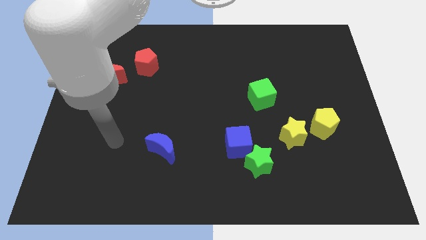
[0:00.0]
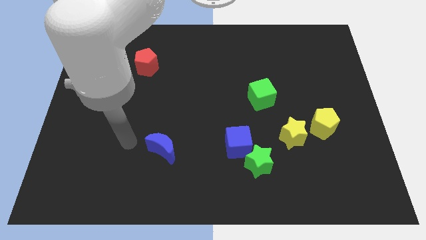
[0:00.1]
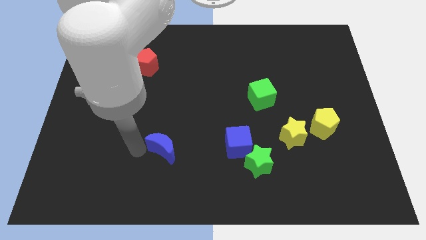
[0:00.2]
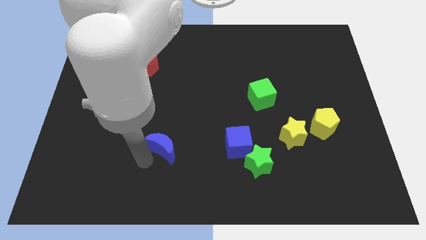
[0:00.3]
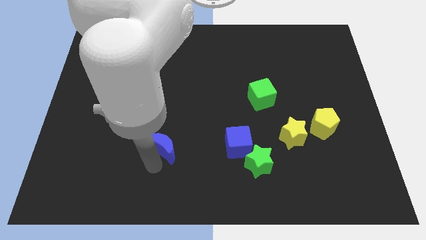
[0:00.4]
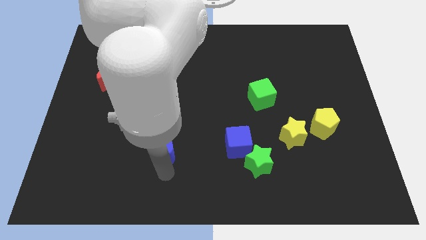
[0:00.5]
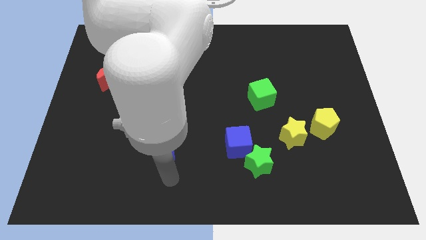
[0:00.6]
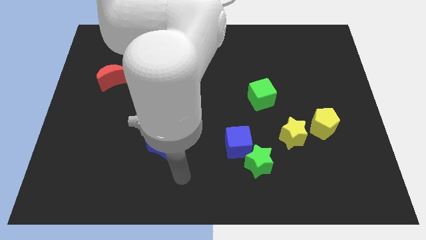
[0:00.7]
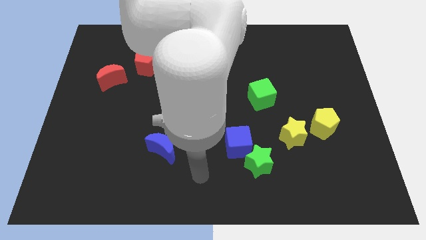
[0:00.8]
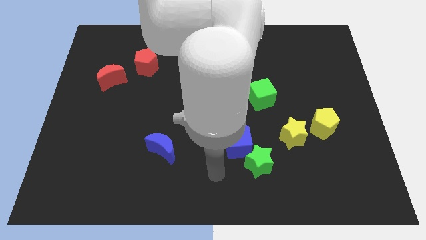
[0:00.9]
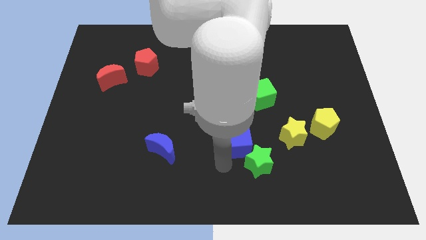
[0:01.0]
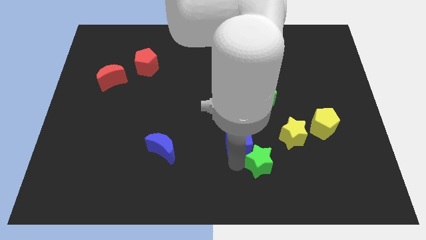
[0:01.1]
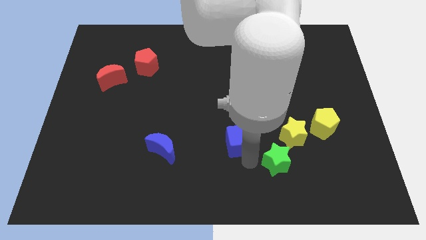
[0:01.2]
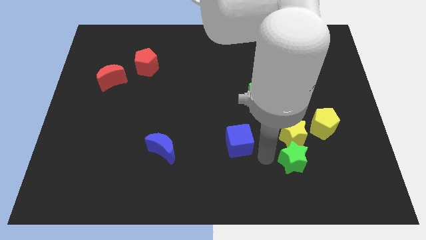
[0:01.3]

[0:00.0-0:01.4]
pull the blue cube apart from the green star

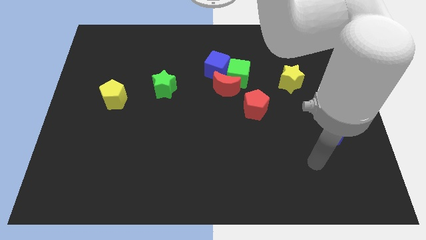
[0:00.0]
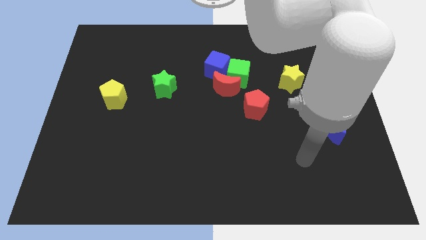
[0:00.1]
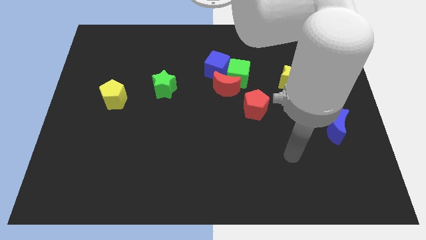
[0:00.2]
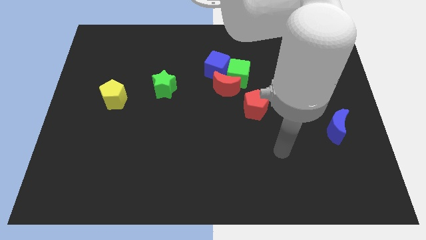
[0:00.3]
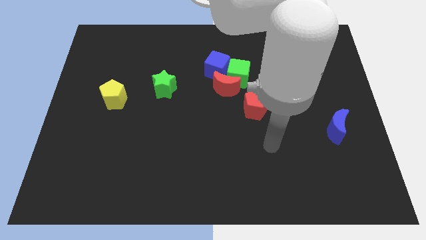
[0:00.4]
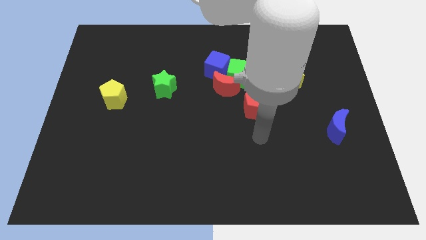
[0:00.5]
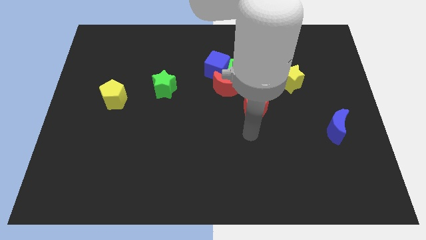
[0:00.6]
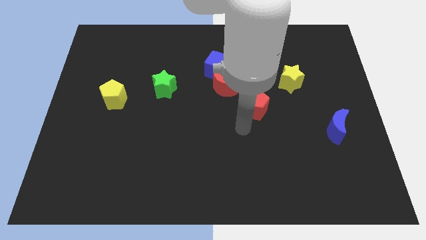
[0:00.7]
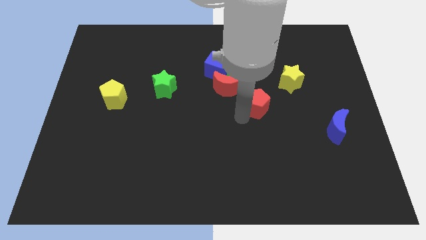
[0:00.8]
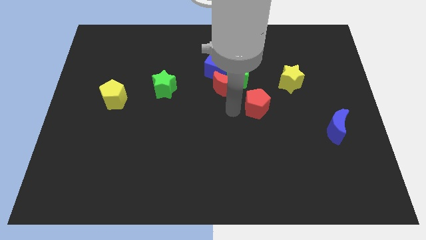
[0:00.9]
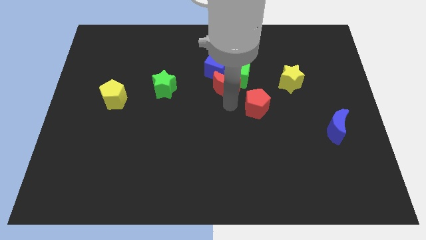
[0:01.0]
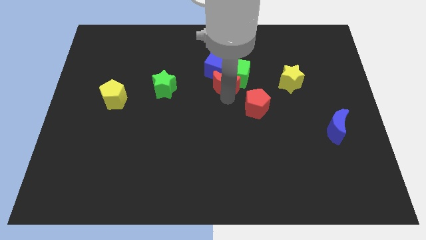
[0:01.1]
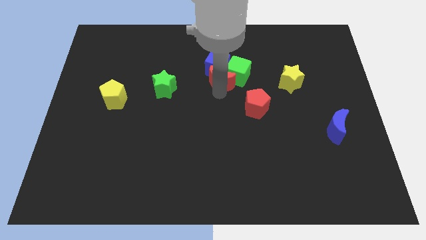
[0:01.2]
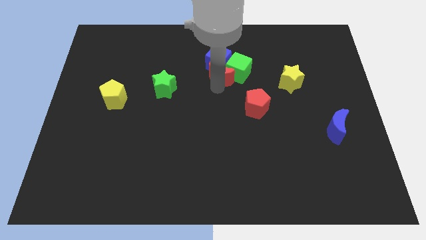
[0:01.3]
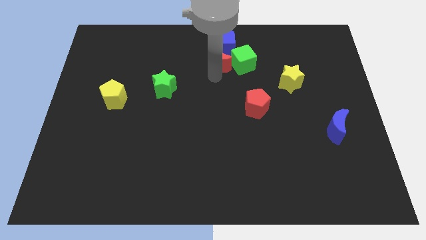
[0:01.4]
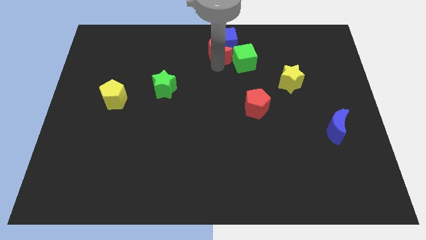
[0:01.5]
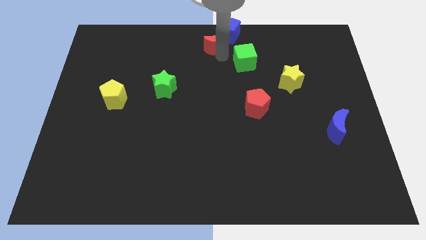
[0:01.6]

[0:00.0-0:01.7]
move the green cube away from the red moon and blue cube

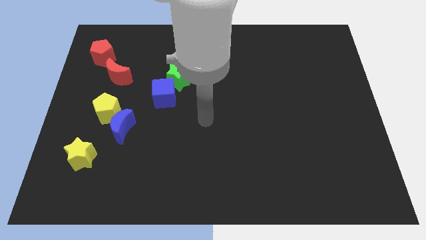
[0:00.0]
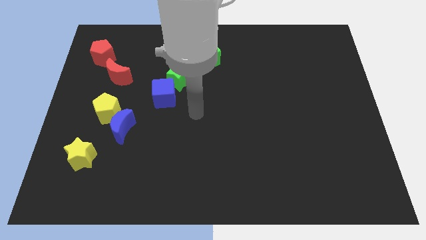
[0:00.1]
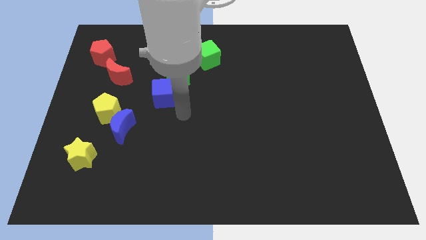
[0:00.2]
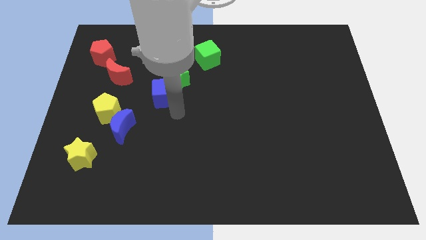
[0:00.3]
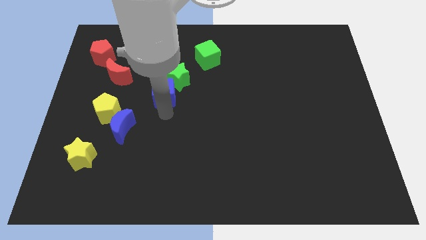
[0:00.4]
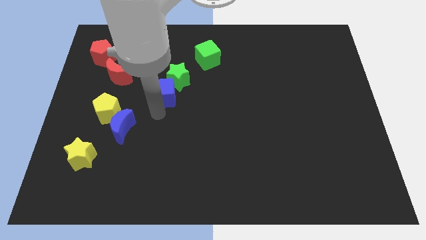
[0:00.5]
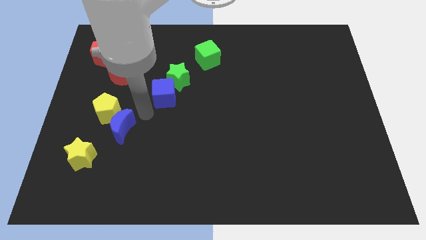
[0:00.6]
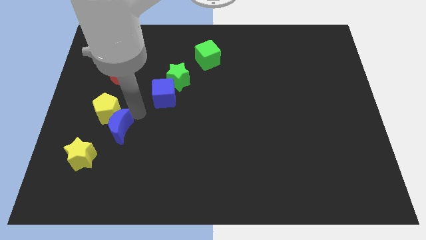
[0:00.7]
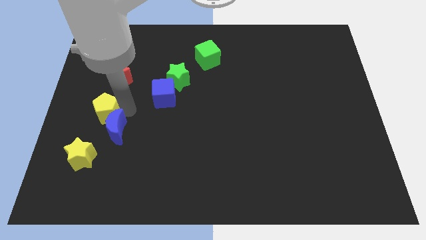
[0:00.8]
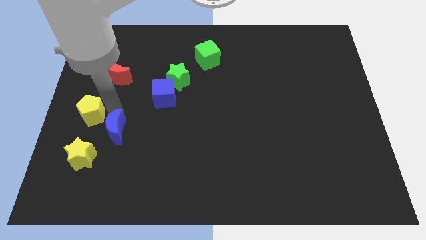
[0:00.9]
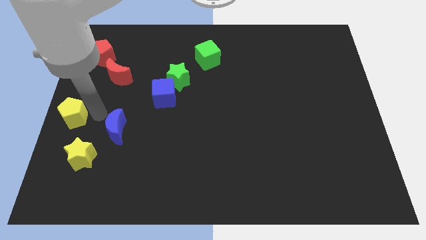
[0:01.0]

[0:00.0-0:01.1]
move the blue moon away from the yellow pentagon

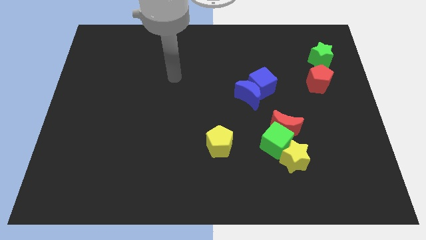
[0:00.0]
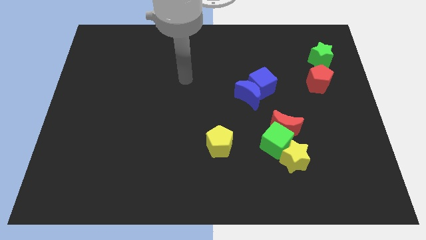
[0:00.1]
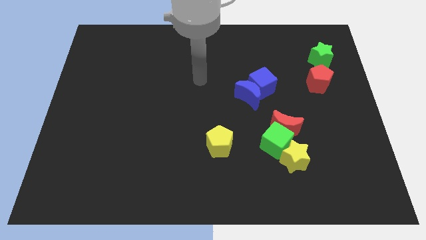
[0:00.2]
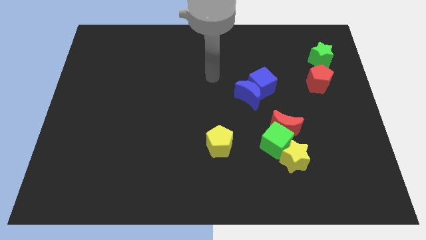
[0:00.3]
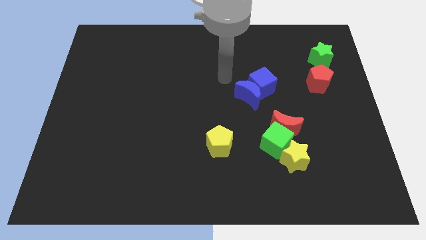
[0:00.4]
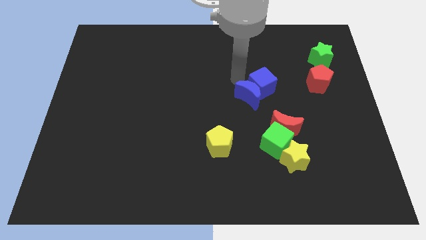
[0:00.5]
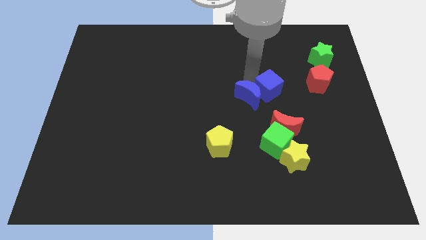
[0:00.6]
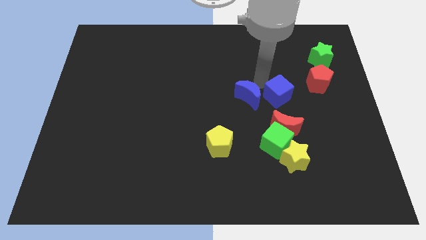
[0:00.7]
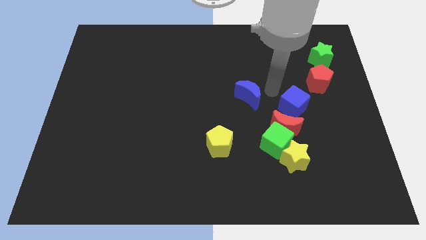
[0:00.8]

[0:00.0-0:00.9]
pull the blue moon apart from the blue cube

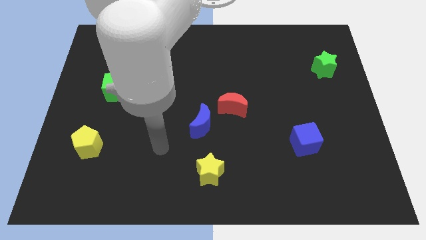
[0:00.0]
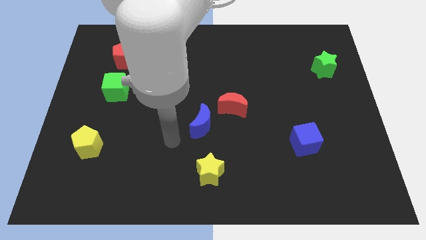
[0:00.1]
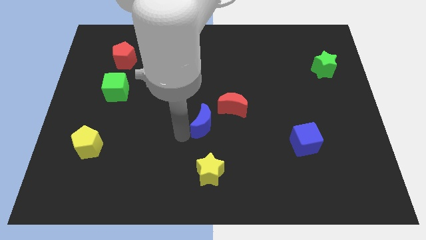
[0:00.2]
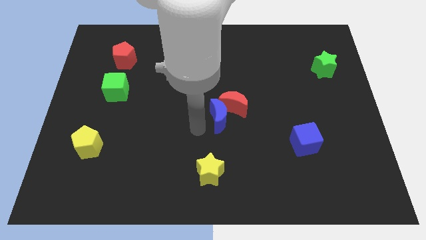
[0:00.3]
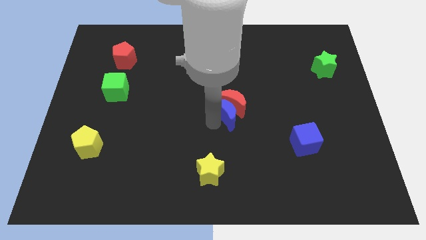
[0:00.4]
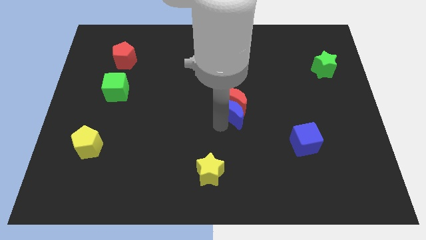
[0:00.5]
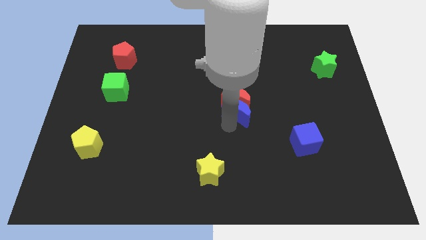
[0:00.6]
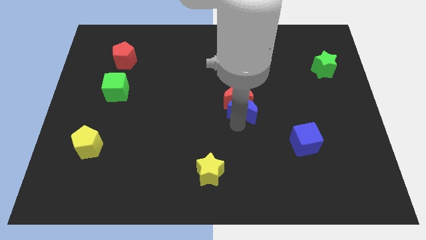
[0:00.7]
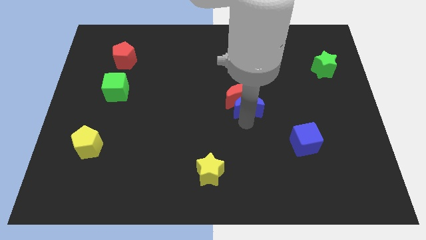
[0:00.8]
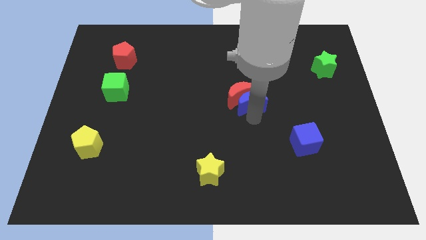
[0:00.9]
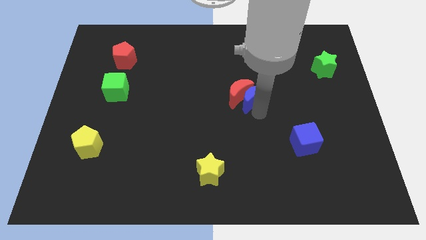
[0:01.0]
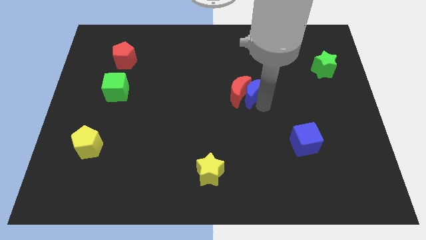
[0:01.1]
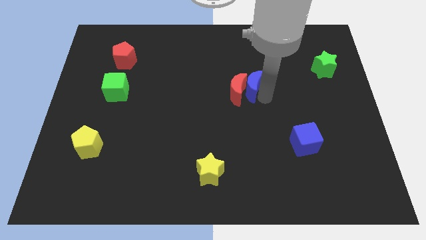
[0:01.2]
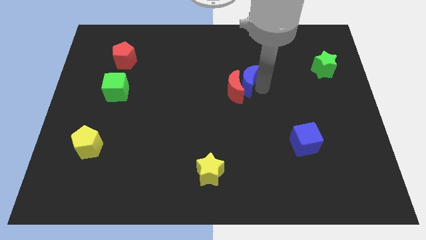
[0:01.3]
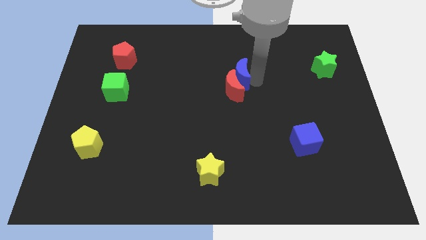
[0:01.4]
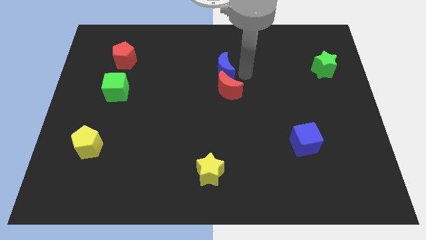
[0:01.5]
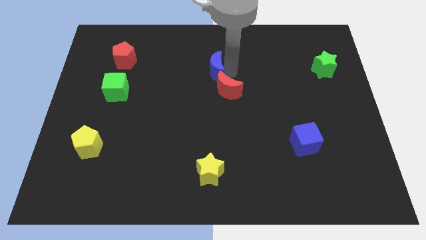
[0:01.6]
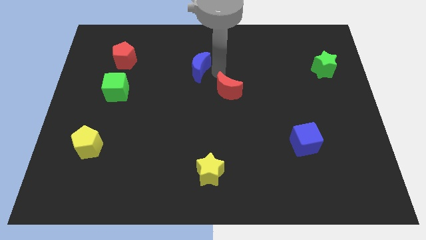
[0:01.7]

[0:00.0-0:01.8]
pull the red moon apart from the blue moon

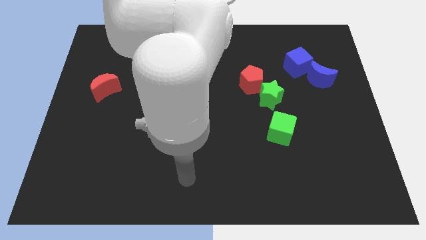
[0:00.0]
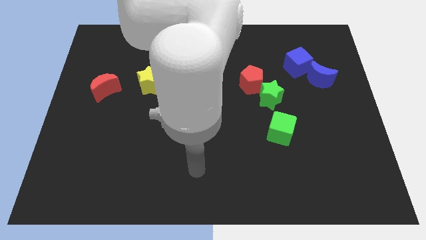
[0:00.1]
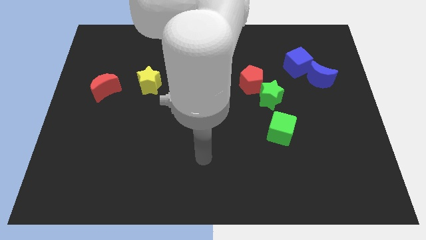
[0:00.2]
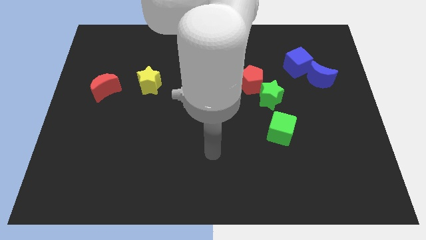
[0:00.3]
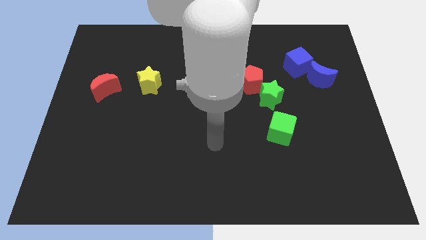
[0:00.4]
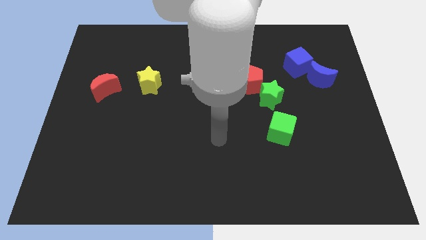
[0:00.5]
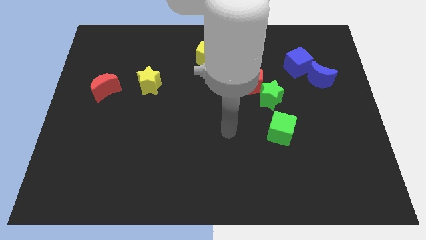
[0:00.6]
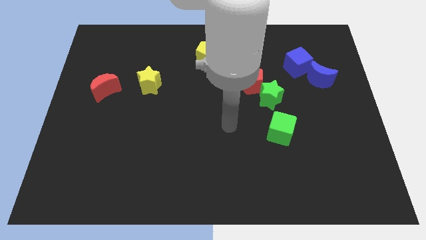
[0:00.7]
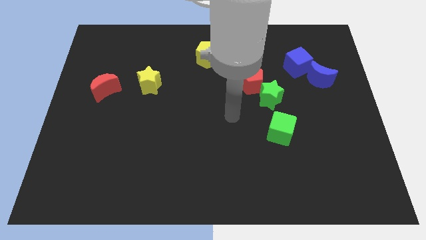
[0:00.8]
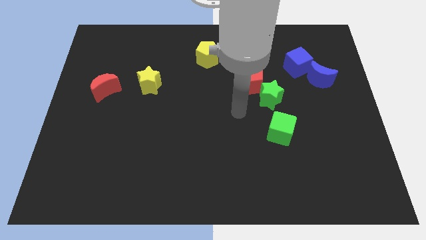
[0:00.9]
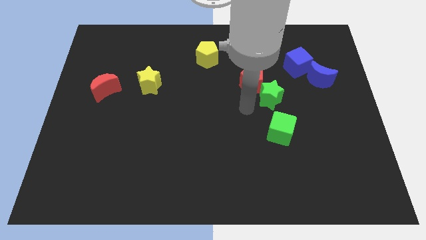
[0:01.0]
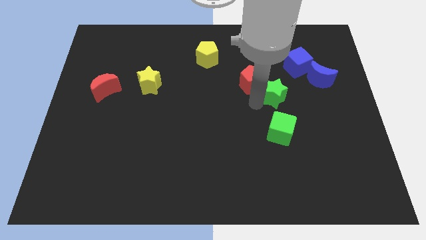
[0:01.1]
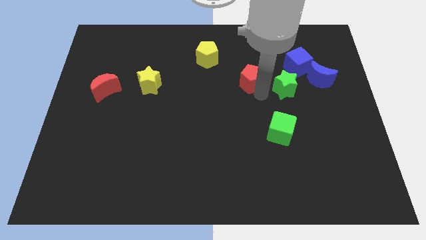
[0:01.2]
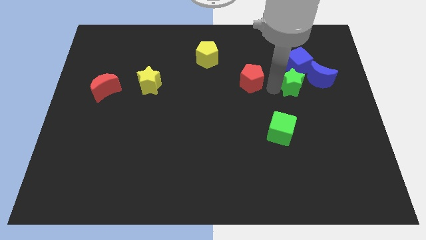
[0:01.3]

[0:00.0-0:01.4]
separate the red pentagon from the green star

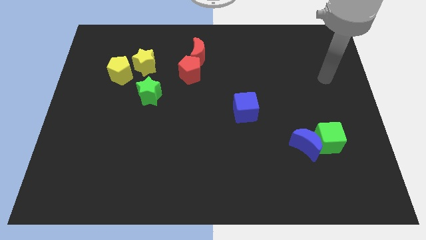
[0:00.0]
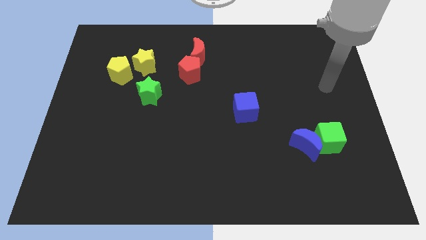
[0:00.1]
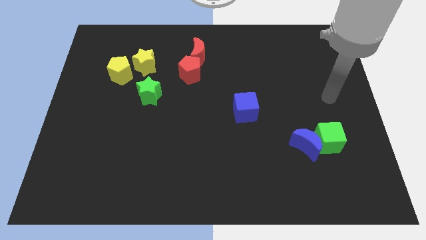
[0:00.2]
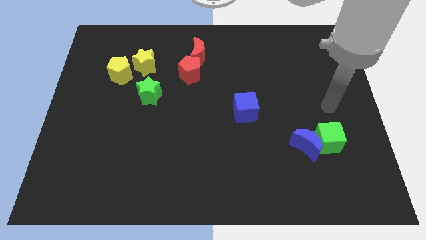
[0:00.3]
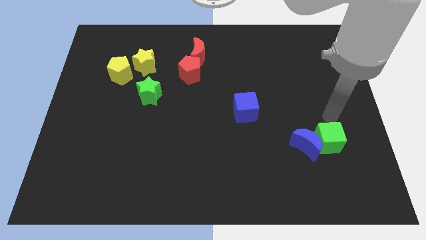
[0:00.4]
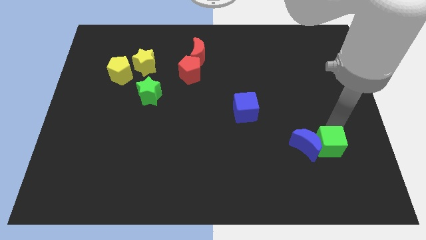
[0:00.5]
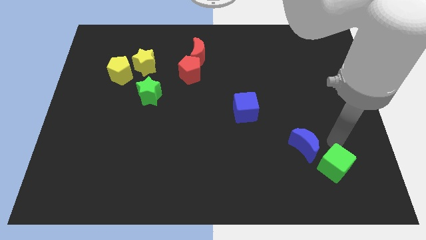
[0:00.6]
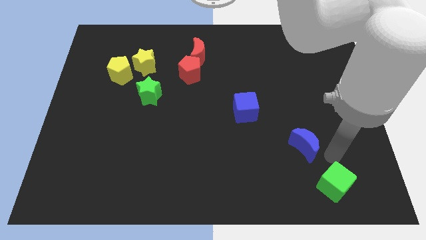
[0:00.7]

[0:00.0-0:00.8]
separate the blue moon from the green cube
